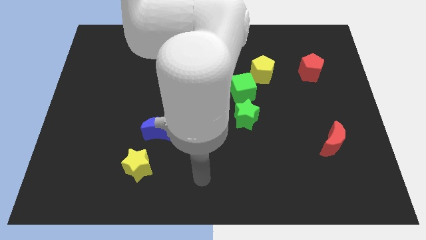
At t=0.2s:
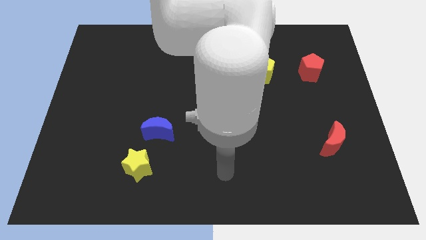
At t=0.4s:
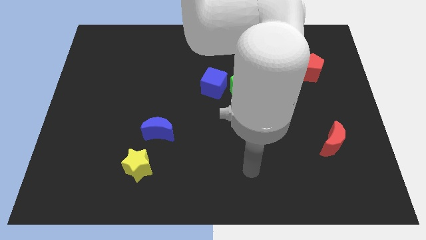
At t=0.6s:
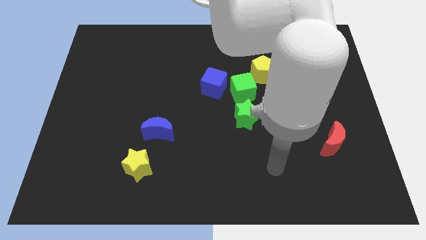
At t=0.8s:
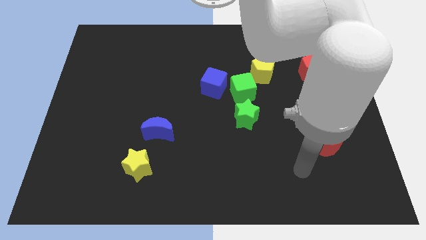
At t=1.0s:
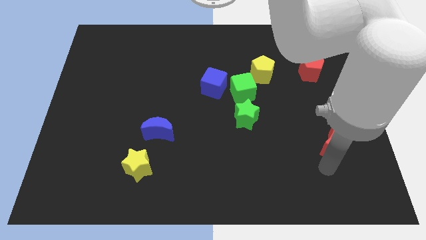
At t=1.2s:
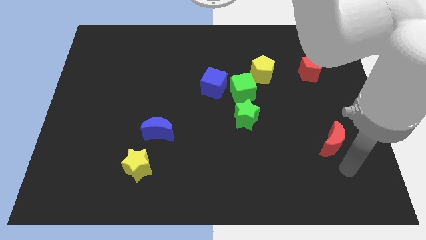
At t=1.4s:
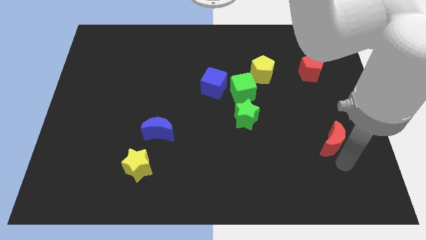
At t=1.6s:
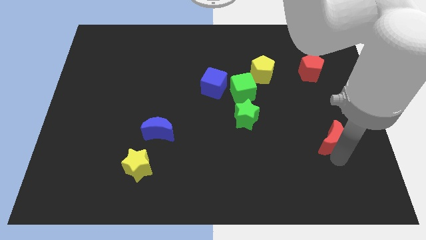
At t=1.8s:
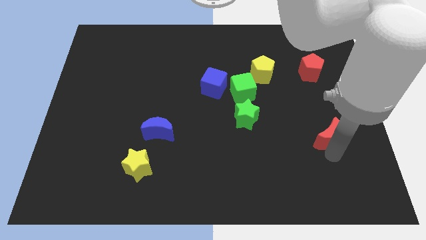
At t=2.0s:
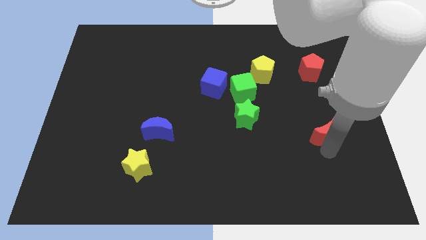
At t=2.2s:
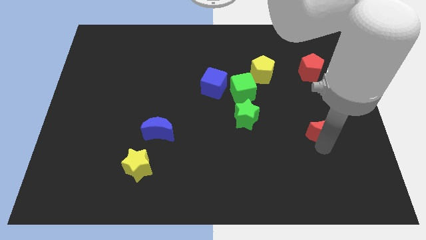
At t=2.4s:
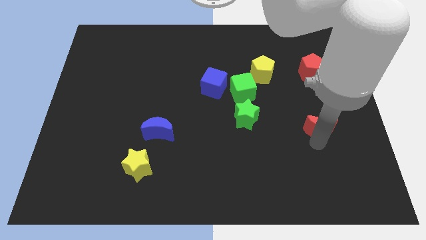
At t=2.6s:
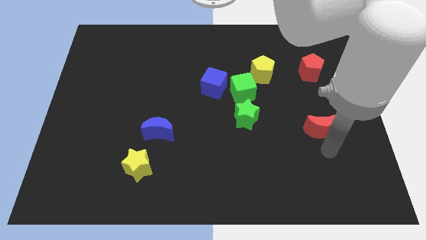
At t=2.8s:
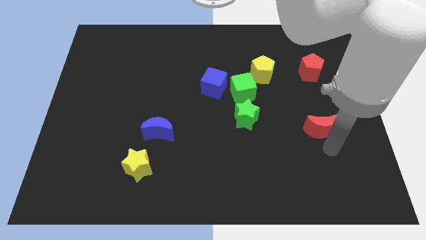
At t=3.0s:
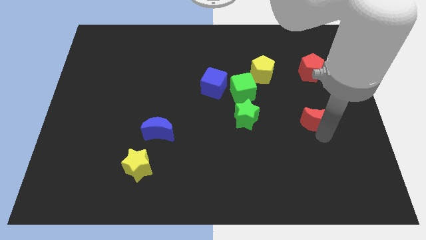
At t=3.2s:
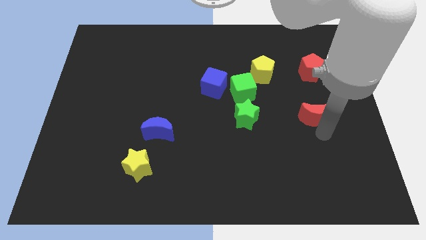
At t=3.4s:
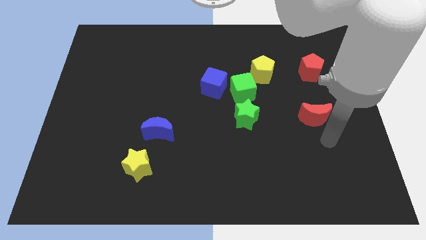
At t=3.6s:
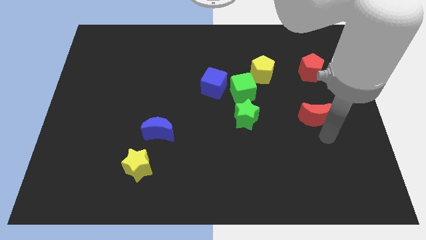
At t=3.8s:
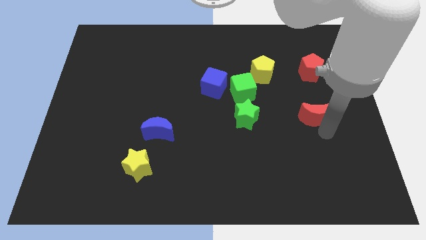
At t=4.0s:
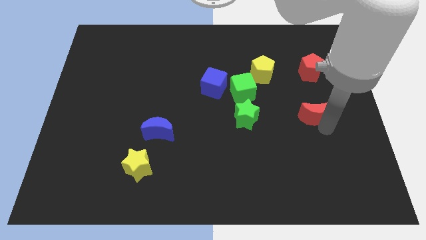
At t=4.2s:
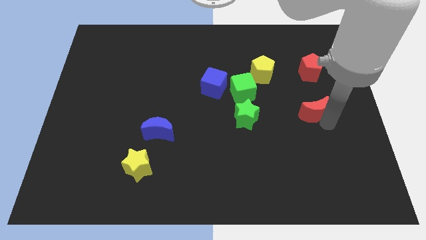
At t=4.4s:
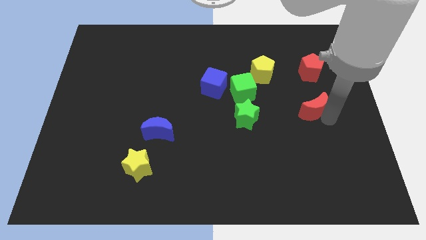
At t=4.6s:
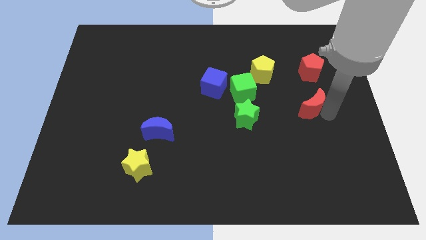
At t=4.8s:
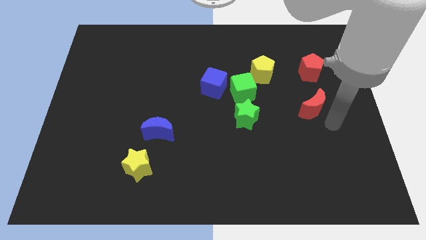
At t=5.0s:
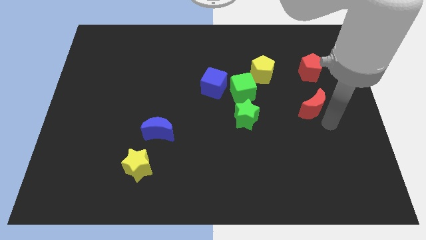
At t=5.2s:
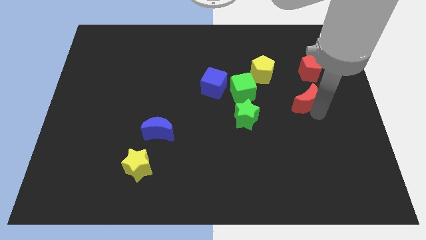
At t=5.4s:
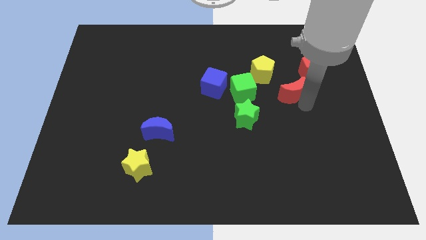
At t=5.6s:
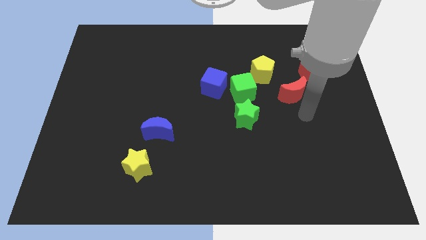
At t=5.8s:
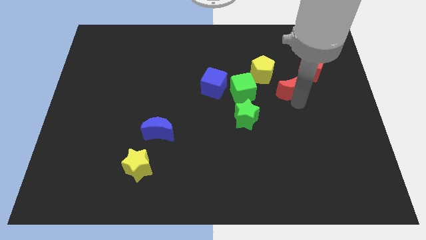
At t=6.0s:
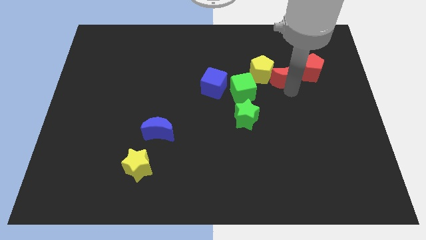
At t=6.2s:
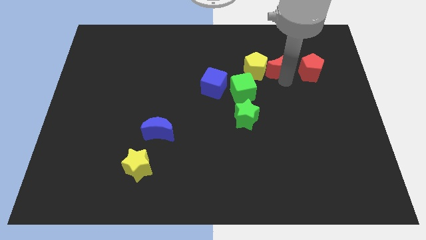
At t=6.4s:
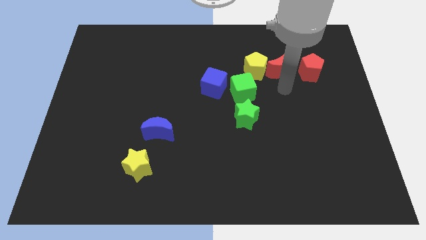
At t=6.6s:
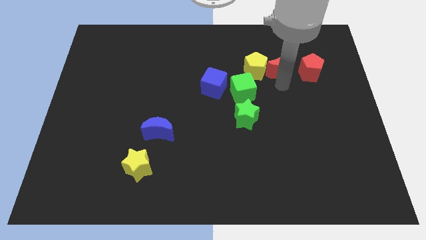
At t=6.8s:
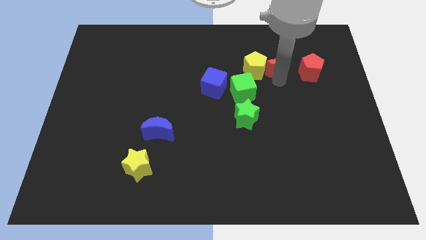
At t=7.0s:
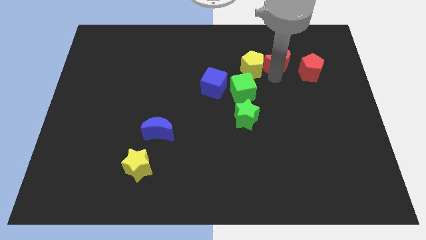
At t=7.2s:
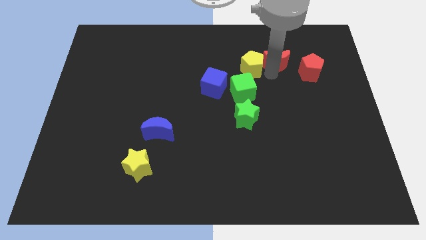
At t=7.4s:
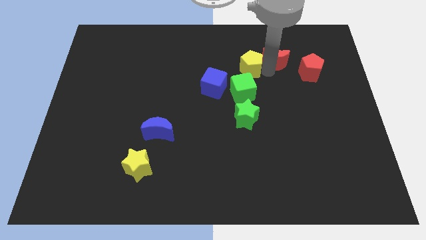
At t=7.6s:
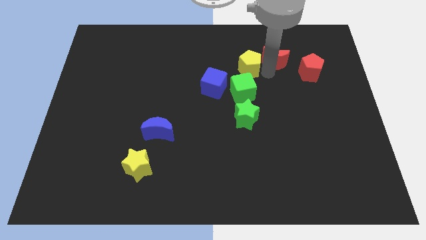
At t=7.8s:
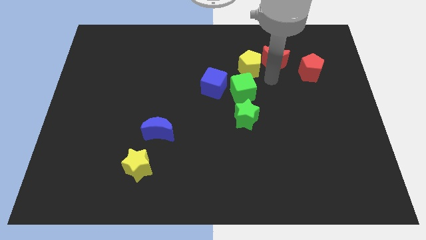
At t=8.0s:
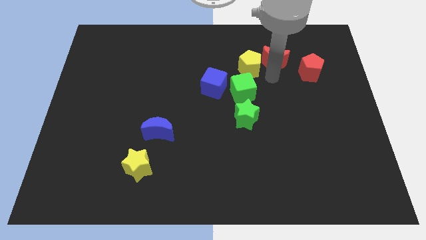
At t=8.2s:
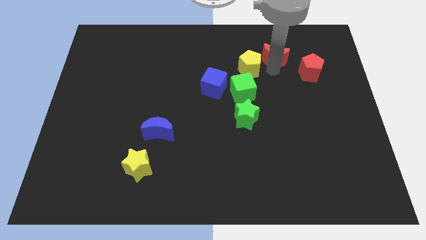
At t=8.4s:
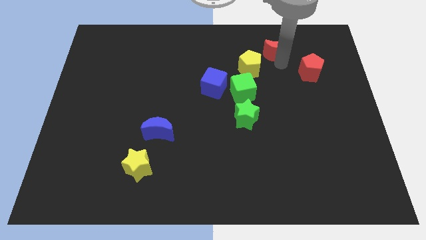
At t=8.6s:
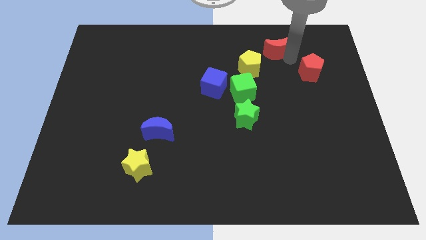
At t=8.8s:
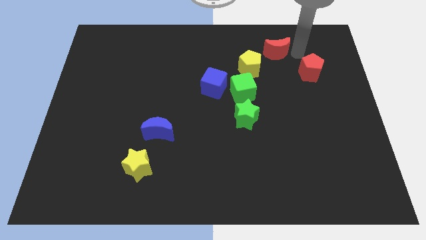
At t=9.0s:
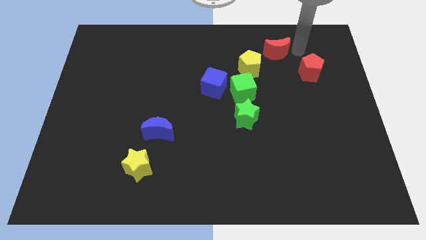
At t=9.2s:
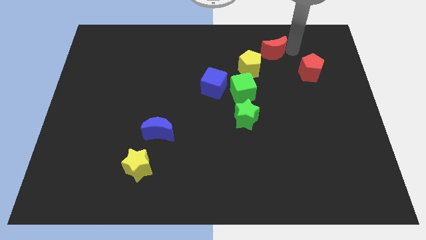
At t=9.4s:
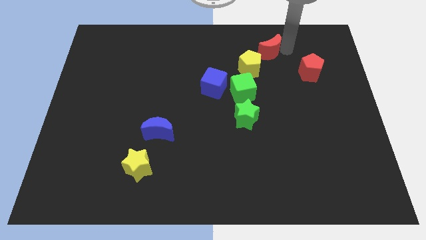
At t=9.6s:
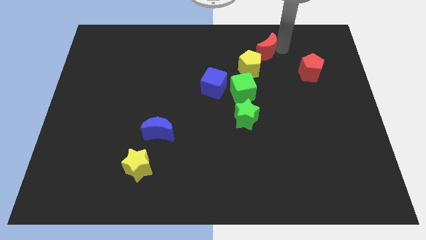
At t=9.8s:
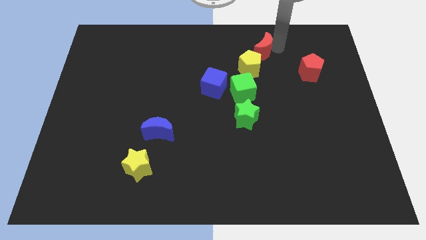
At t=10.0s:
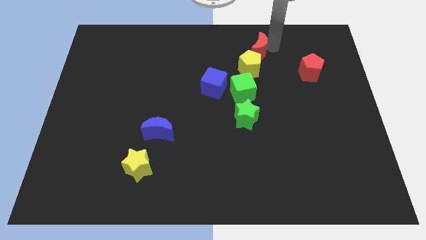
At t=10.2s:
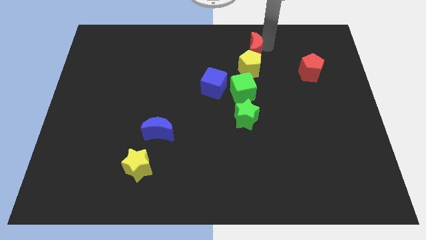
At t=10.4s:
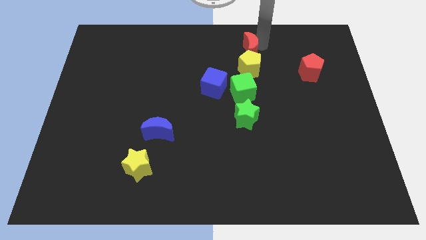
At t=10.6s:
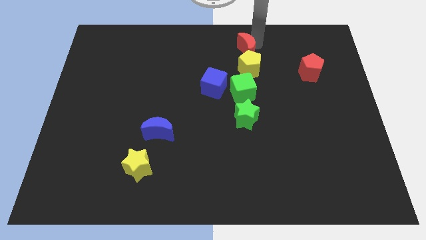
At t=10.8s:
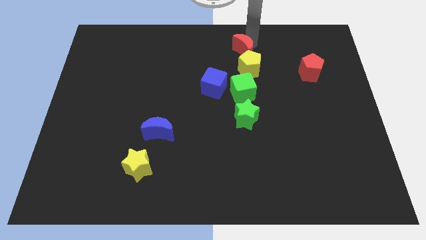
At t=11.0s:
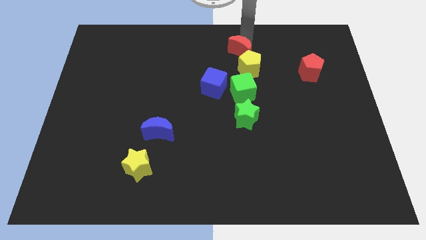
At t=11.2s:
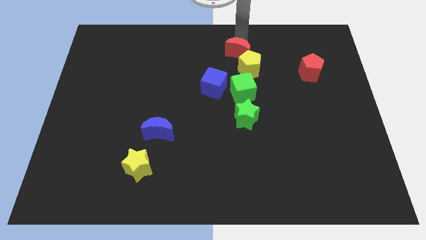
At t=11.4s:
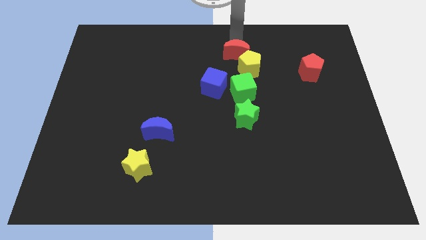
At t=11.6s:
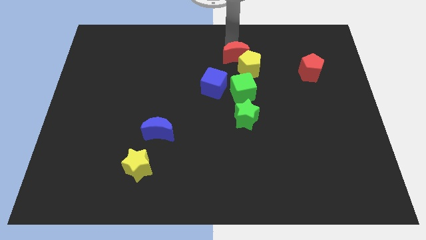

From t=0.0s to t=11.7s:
move the red moon to the top right of the blue cube

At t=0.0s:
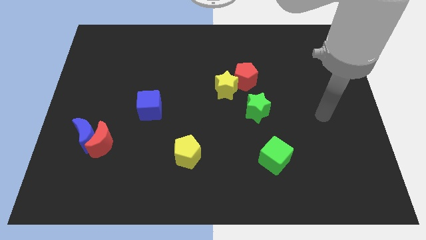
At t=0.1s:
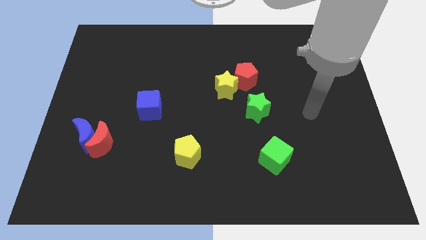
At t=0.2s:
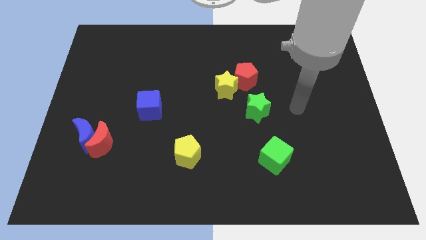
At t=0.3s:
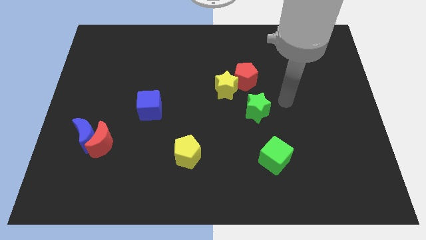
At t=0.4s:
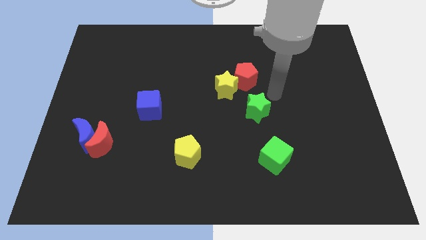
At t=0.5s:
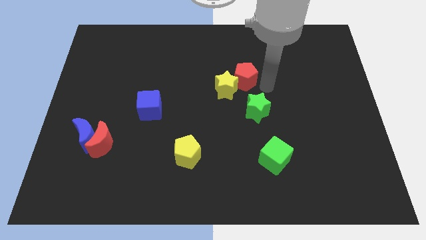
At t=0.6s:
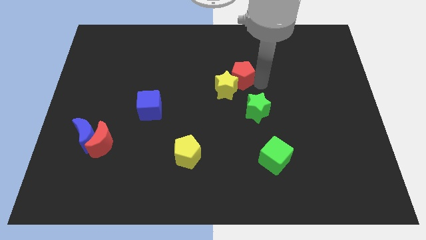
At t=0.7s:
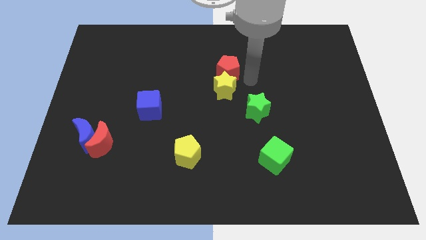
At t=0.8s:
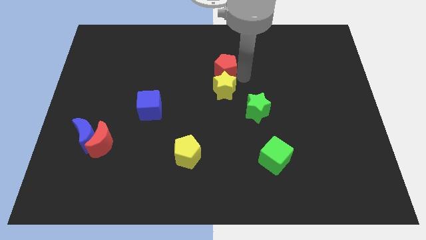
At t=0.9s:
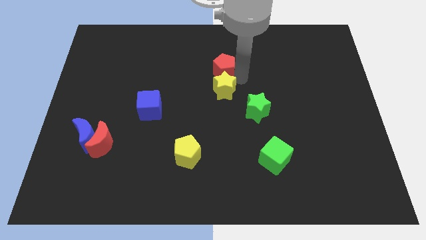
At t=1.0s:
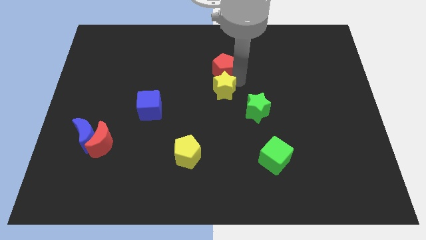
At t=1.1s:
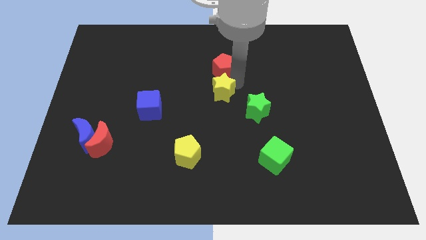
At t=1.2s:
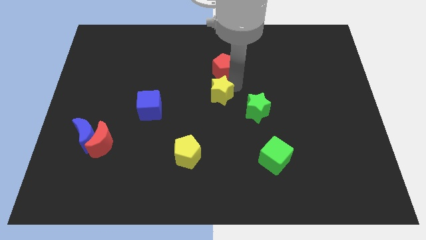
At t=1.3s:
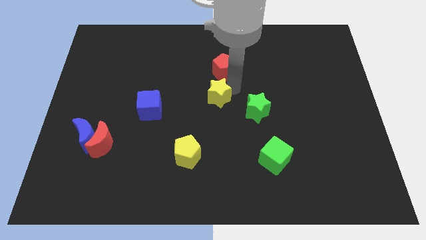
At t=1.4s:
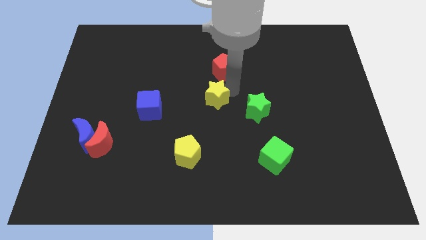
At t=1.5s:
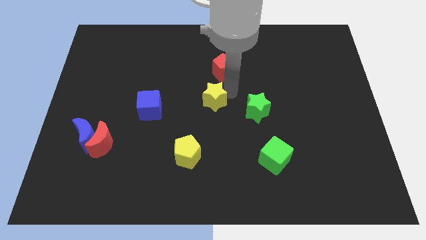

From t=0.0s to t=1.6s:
move the yellow star right of the blue cube
